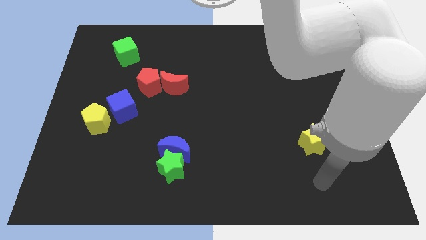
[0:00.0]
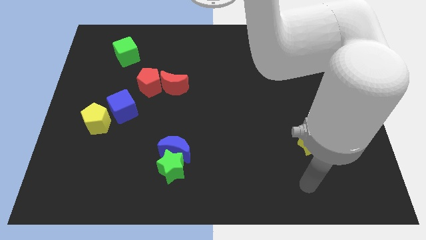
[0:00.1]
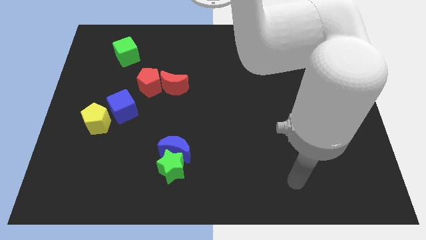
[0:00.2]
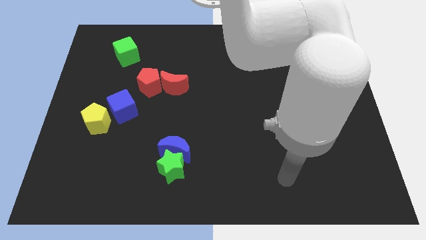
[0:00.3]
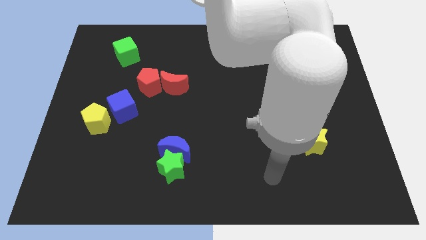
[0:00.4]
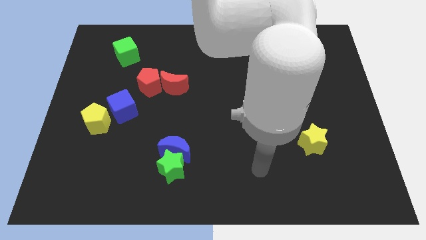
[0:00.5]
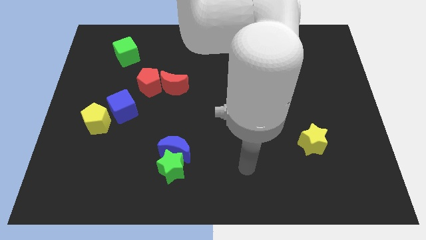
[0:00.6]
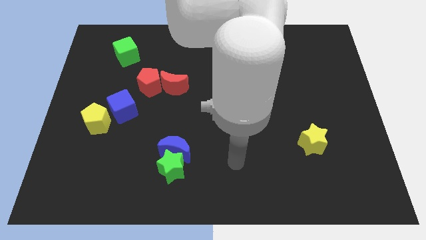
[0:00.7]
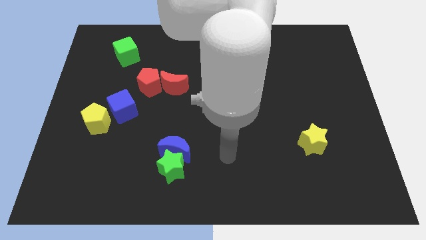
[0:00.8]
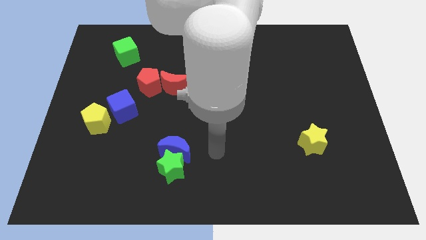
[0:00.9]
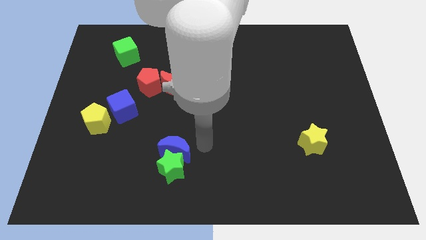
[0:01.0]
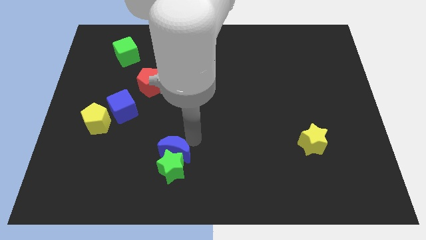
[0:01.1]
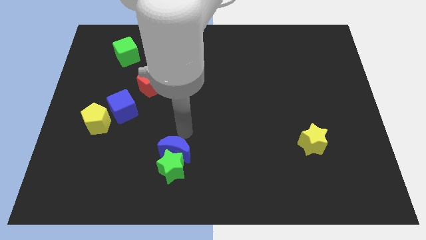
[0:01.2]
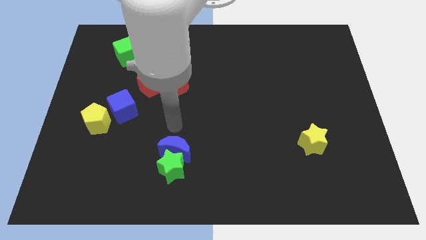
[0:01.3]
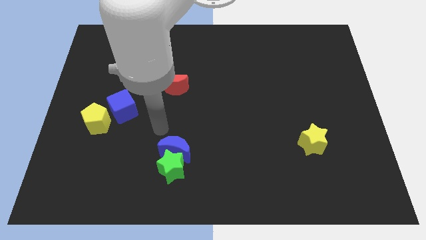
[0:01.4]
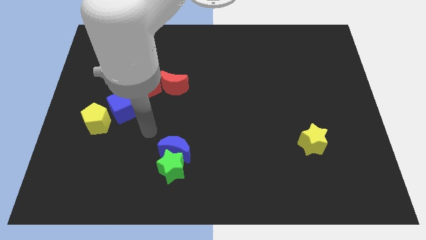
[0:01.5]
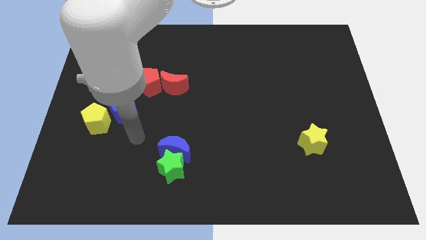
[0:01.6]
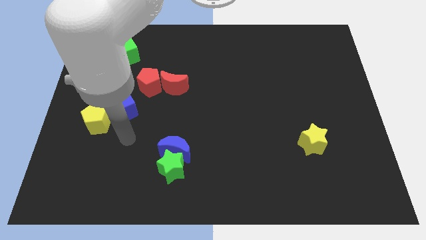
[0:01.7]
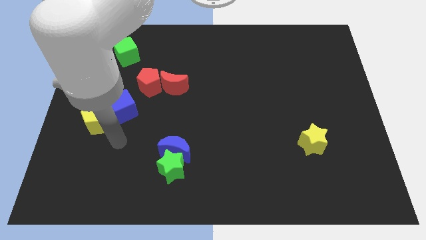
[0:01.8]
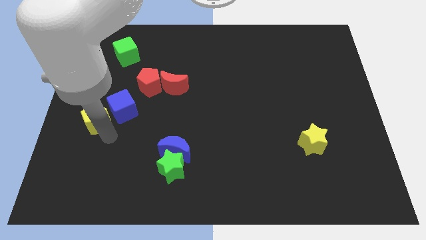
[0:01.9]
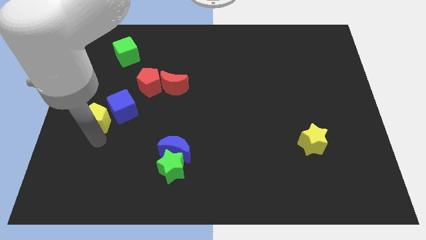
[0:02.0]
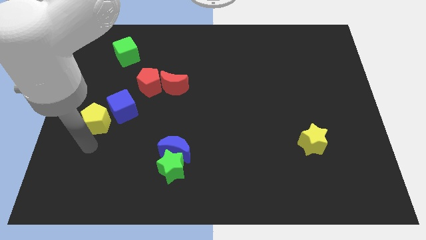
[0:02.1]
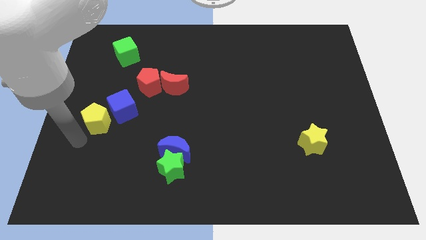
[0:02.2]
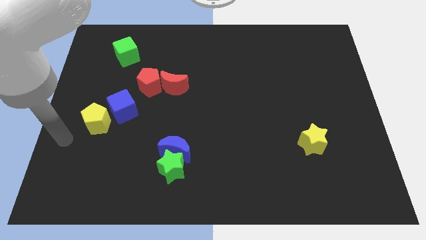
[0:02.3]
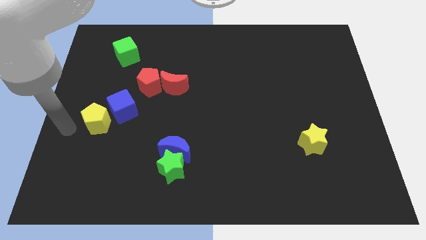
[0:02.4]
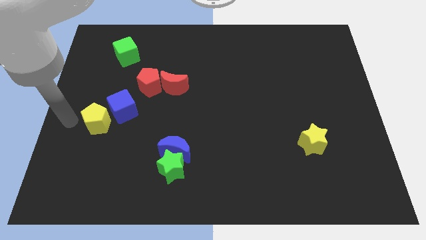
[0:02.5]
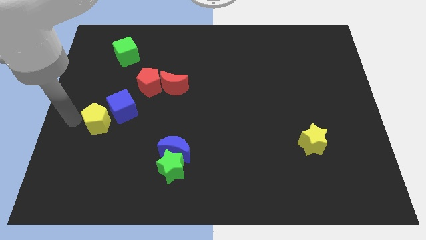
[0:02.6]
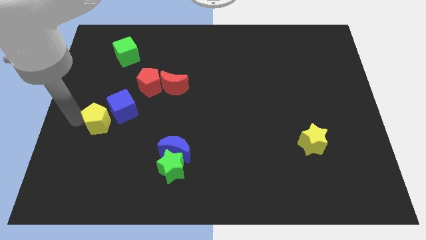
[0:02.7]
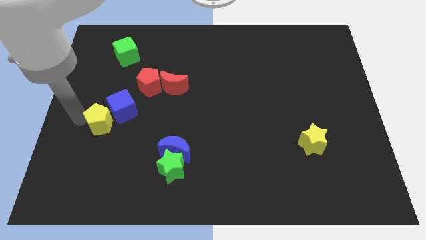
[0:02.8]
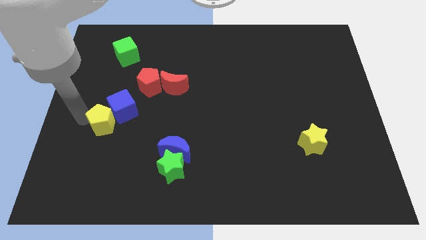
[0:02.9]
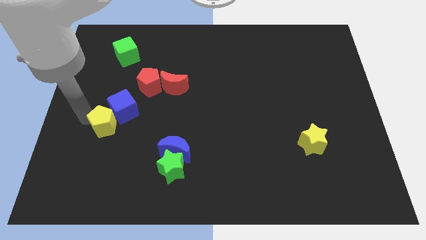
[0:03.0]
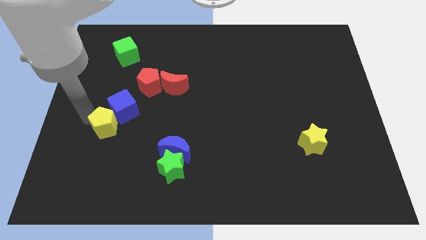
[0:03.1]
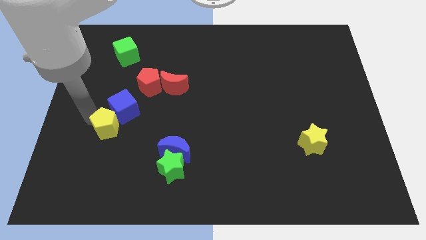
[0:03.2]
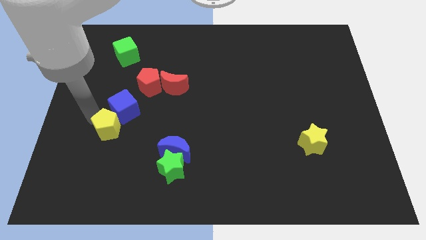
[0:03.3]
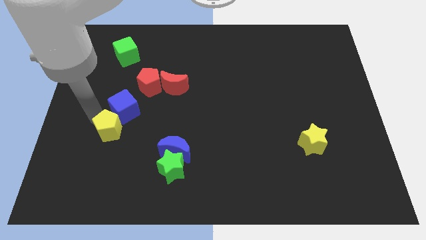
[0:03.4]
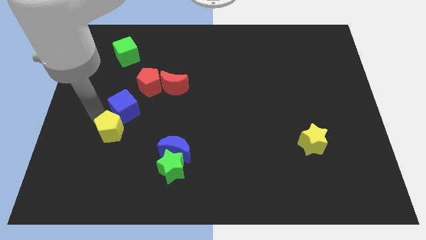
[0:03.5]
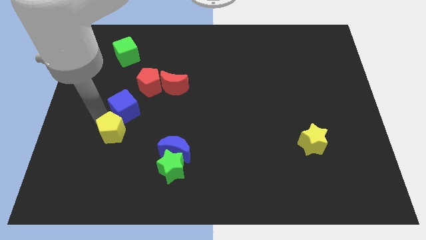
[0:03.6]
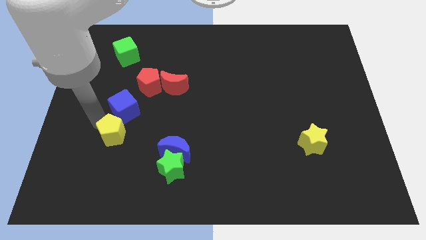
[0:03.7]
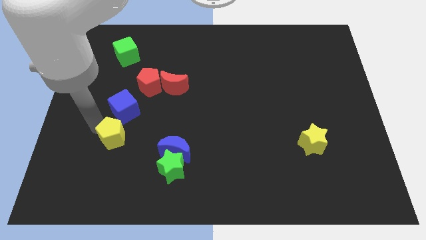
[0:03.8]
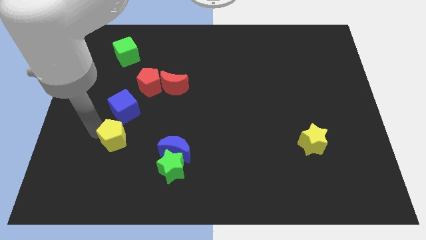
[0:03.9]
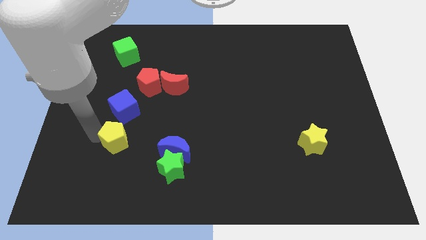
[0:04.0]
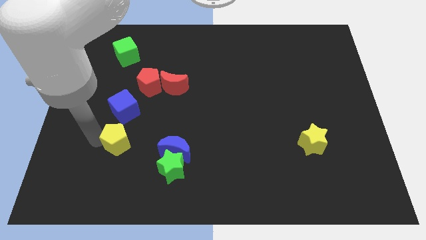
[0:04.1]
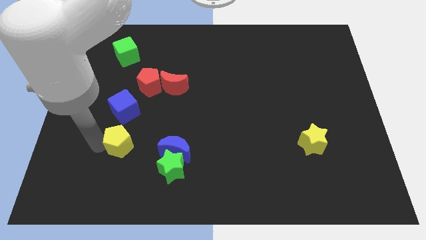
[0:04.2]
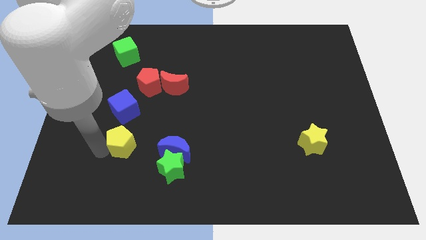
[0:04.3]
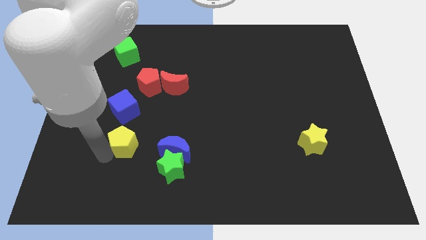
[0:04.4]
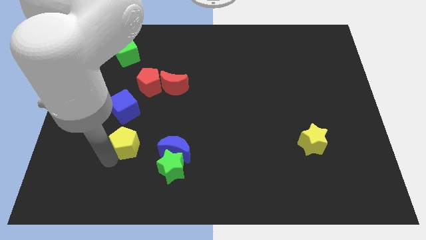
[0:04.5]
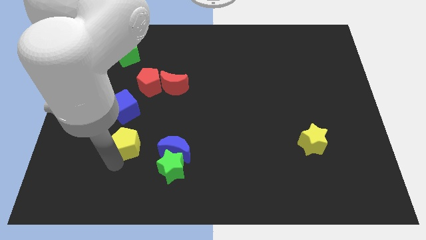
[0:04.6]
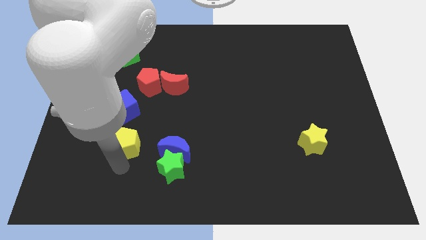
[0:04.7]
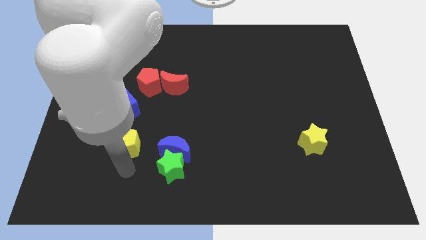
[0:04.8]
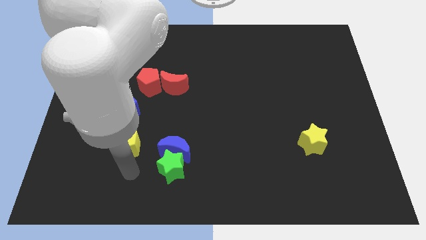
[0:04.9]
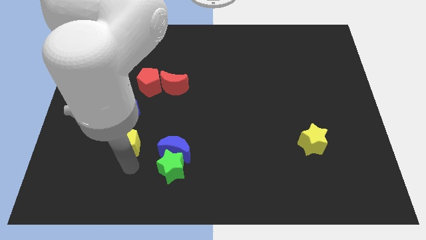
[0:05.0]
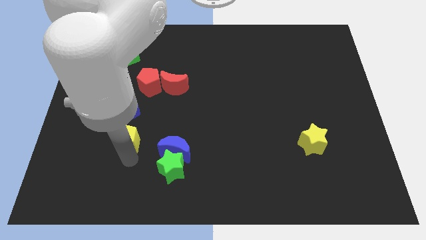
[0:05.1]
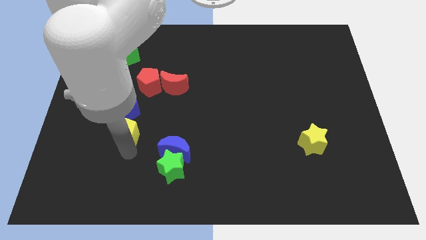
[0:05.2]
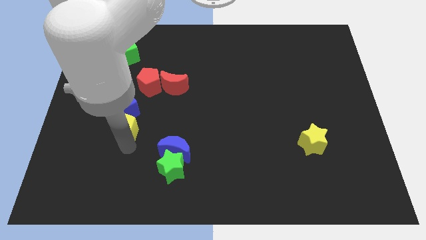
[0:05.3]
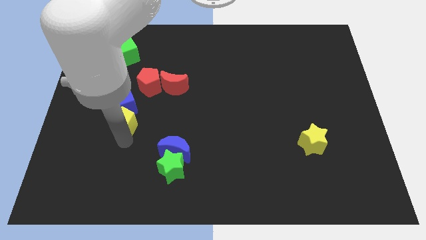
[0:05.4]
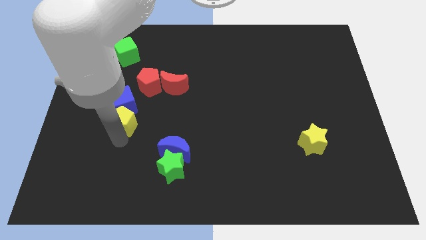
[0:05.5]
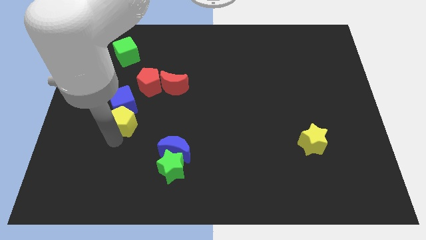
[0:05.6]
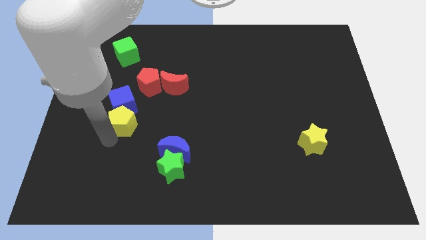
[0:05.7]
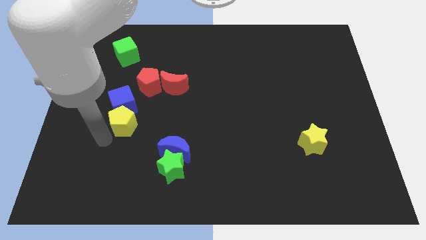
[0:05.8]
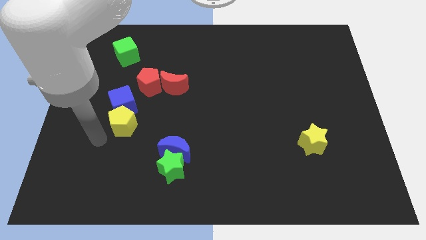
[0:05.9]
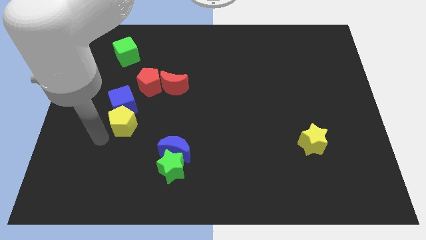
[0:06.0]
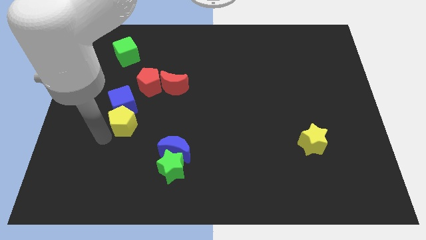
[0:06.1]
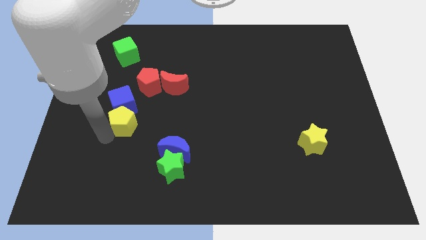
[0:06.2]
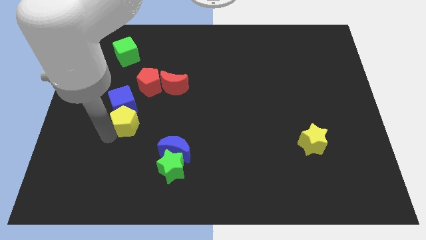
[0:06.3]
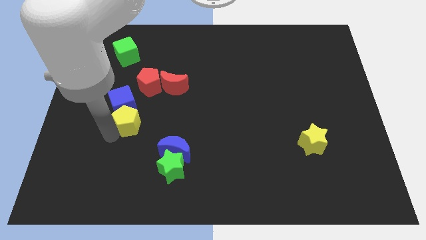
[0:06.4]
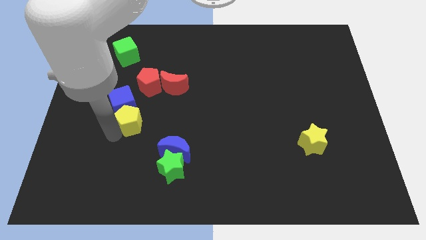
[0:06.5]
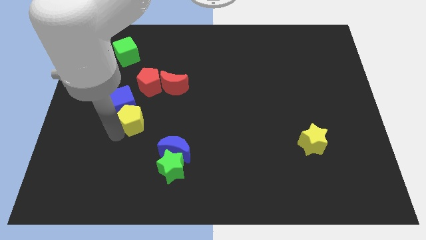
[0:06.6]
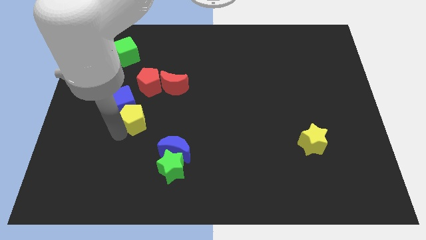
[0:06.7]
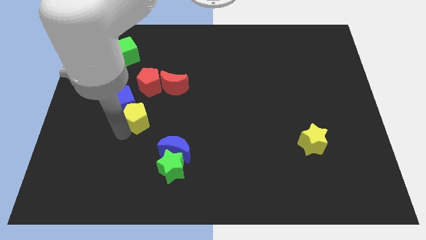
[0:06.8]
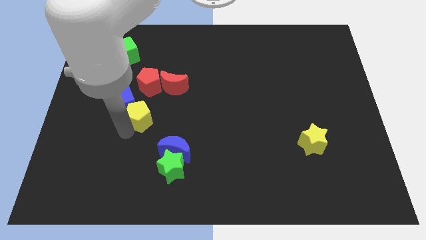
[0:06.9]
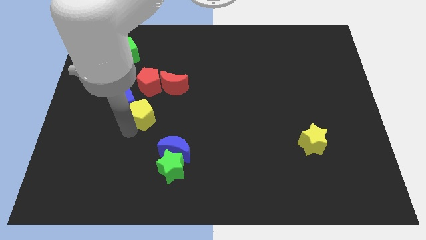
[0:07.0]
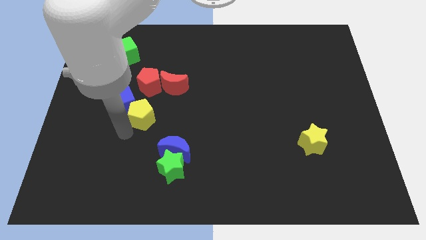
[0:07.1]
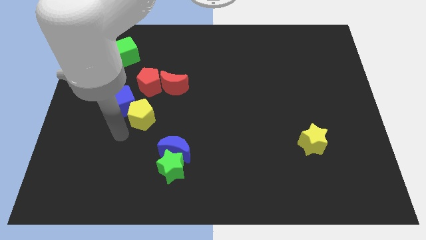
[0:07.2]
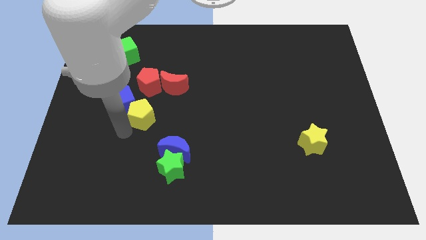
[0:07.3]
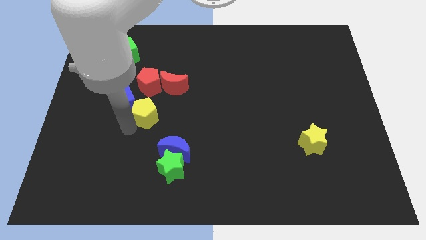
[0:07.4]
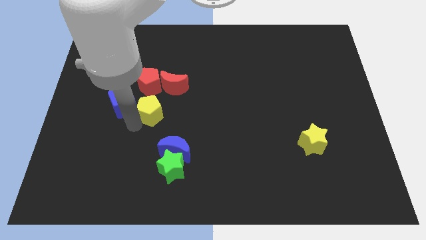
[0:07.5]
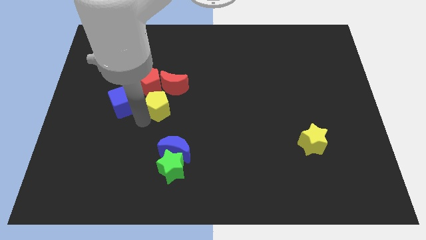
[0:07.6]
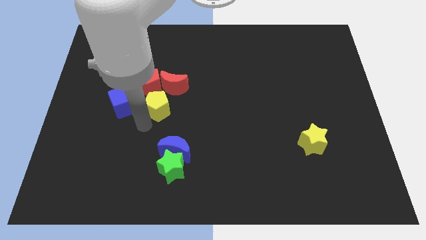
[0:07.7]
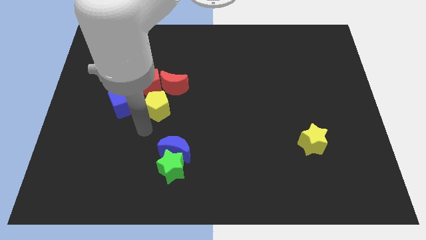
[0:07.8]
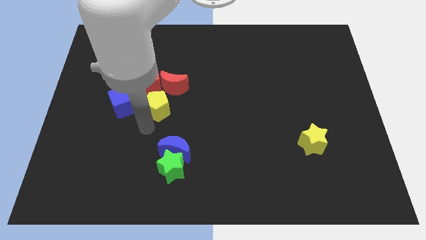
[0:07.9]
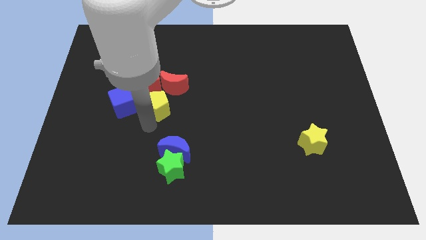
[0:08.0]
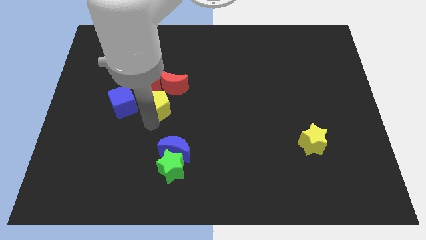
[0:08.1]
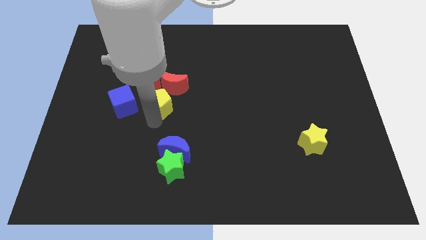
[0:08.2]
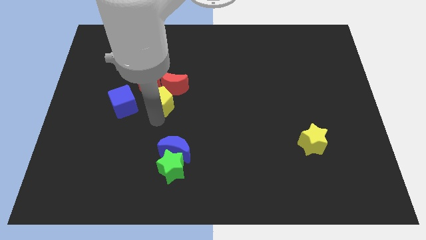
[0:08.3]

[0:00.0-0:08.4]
move the yellow pentagon next to the red moon
